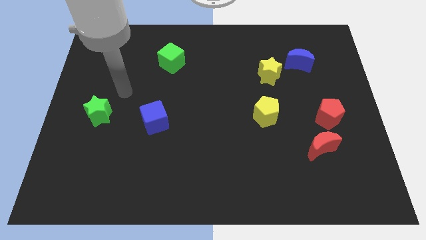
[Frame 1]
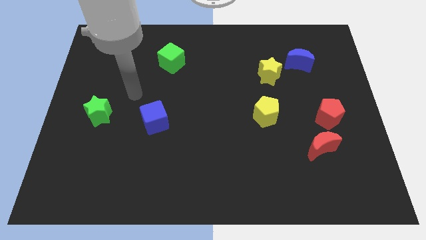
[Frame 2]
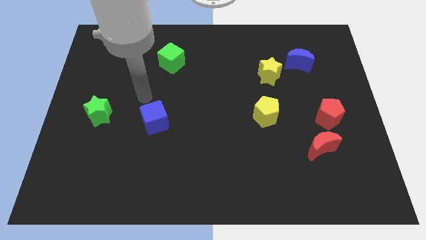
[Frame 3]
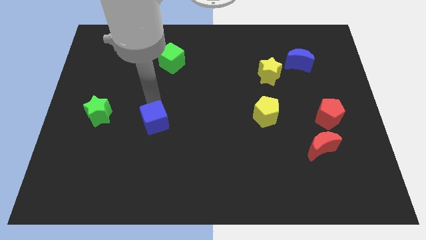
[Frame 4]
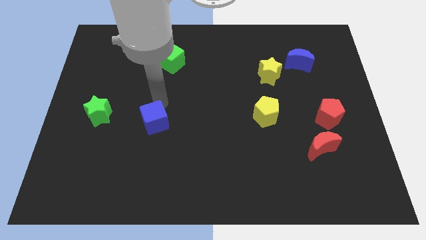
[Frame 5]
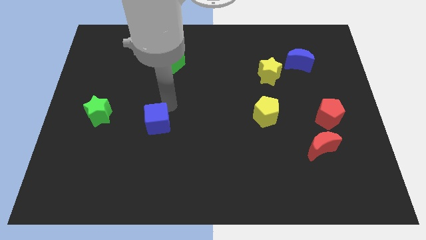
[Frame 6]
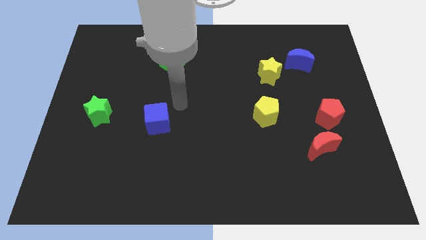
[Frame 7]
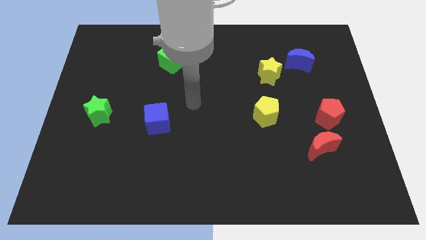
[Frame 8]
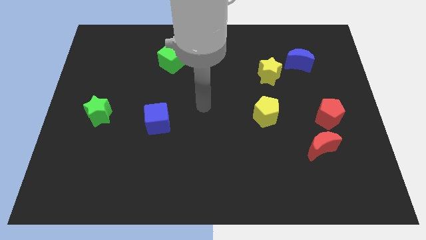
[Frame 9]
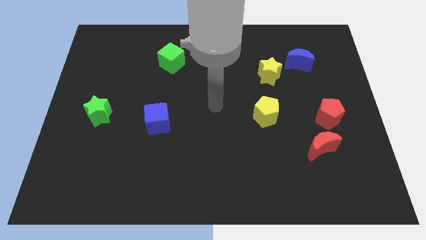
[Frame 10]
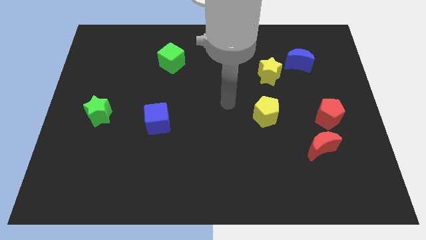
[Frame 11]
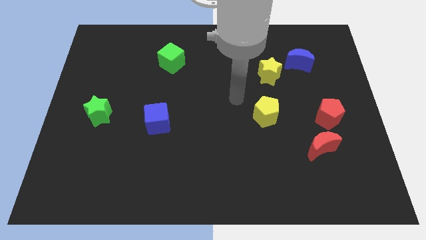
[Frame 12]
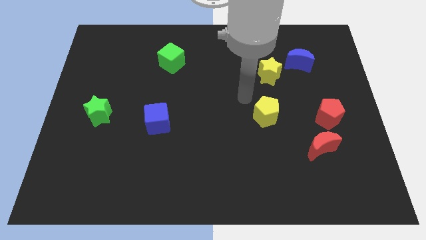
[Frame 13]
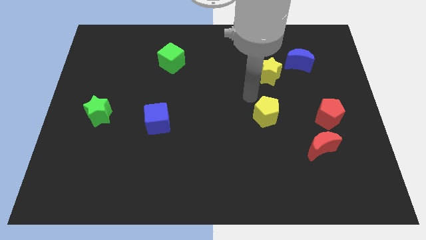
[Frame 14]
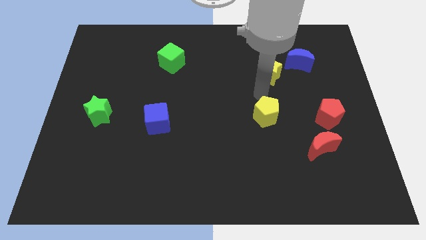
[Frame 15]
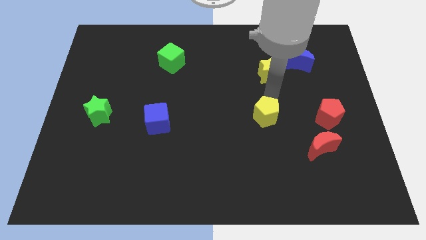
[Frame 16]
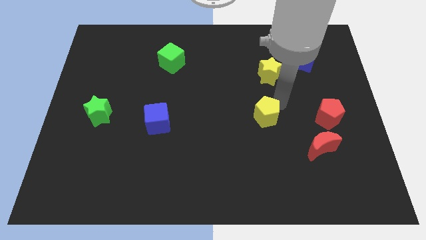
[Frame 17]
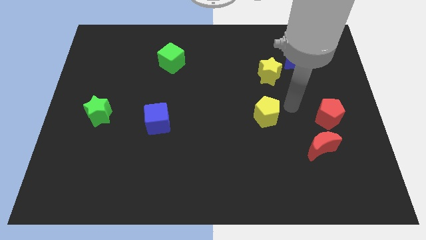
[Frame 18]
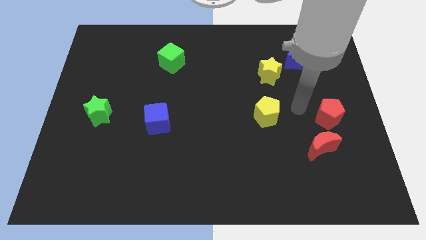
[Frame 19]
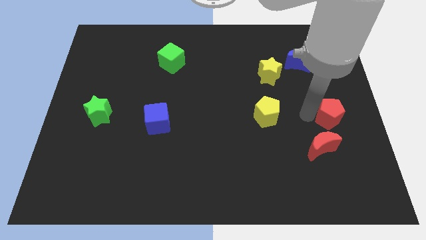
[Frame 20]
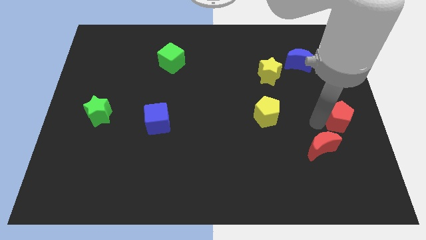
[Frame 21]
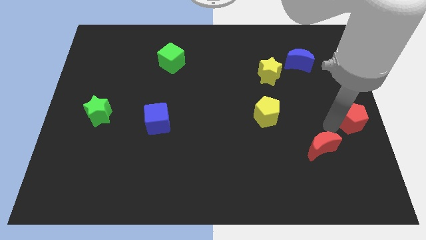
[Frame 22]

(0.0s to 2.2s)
pull the red moon apart from the red pentagon

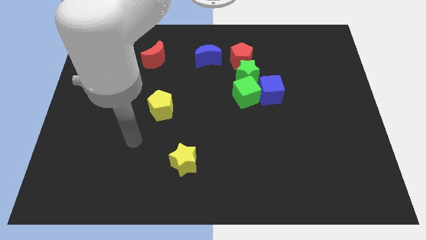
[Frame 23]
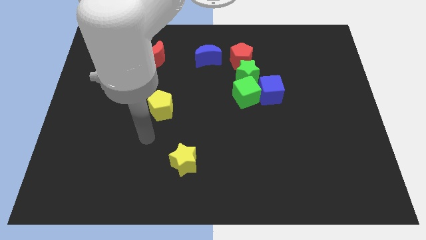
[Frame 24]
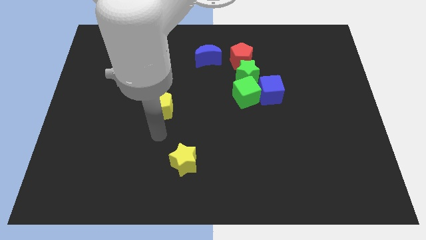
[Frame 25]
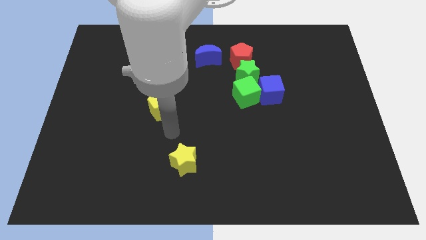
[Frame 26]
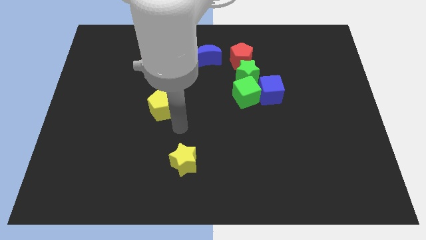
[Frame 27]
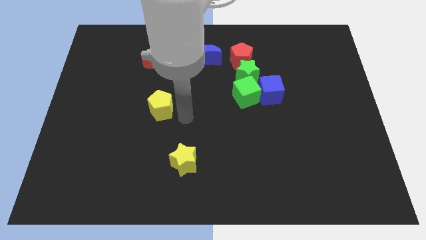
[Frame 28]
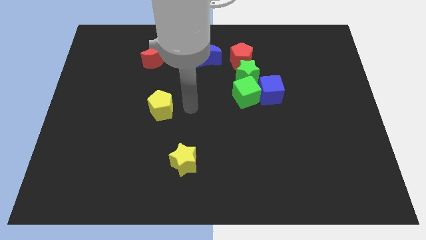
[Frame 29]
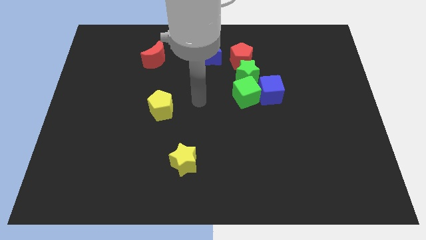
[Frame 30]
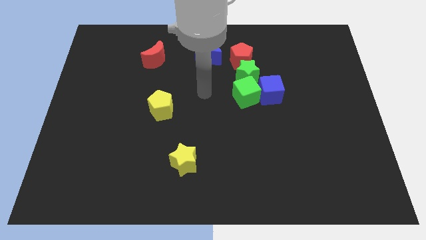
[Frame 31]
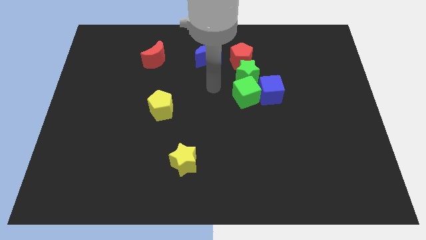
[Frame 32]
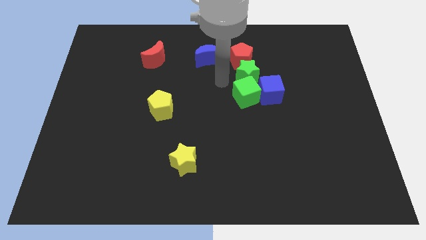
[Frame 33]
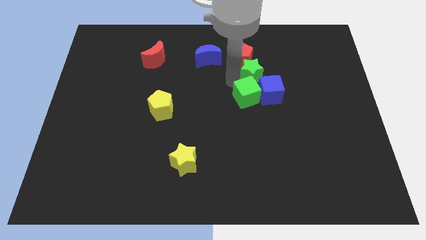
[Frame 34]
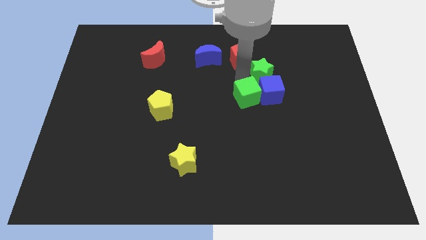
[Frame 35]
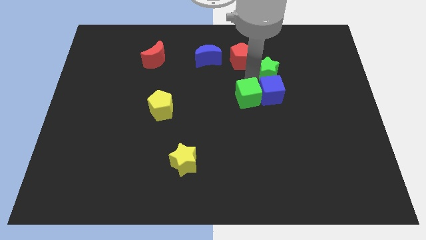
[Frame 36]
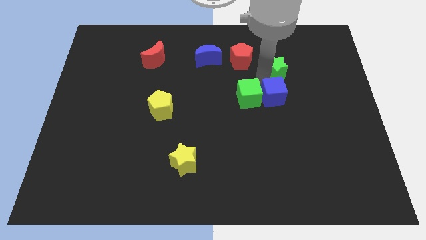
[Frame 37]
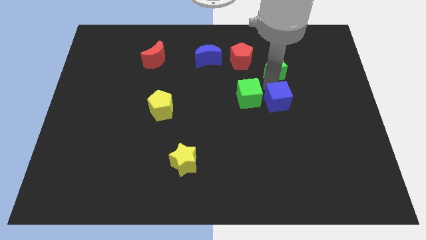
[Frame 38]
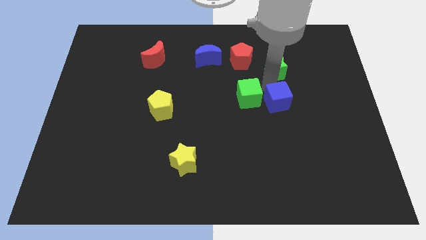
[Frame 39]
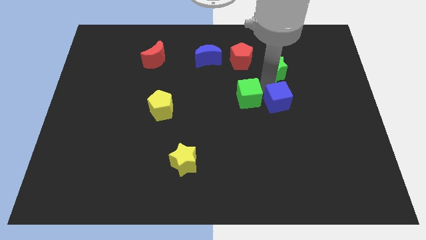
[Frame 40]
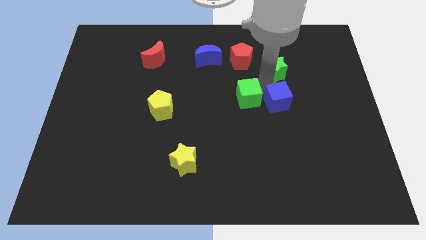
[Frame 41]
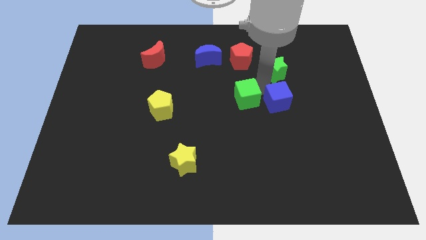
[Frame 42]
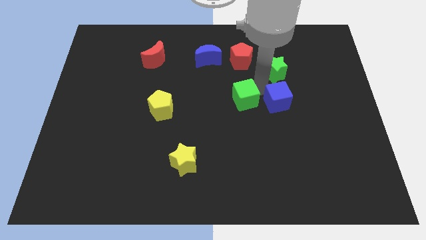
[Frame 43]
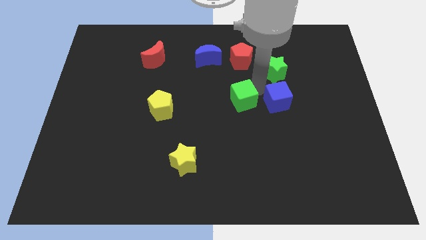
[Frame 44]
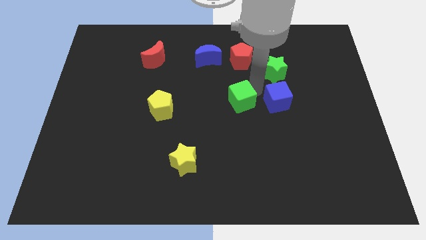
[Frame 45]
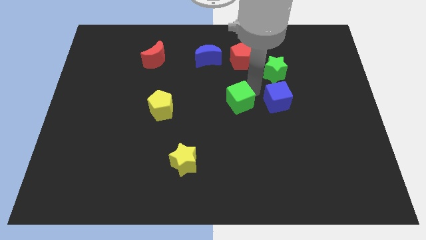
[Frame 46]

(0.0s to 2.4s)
separate the green cube from the blue cube and green star

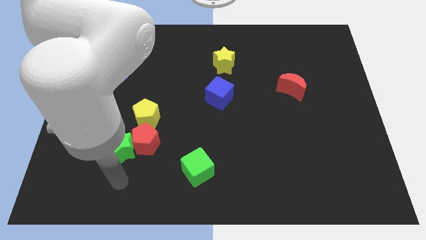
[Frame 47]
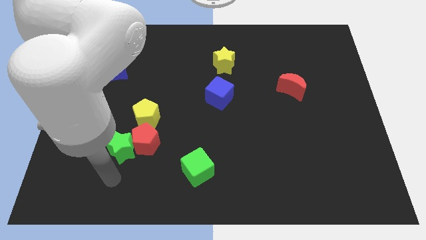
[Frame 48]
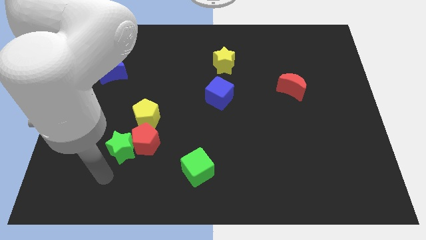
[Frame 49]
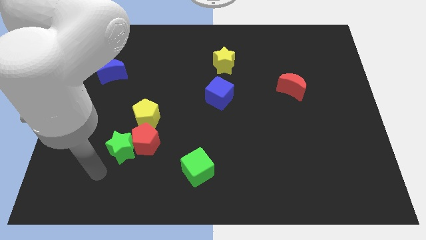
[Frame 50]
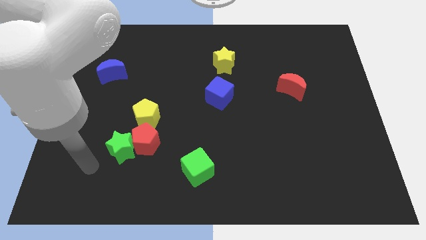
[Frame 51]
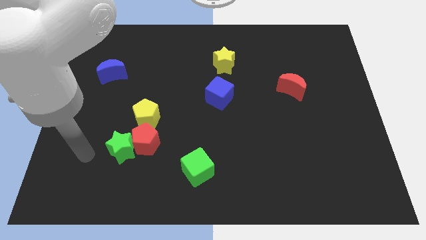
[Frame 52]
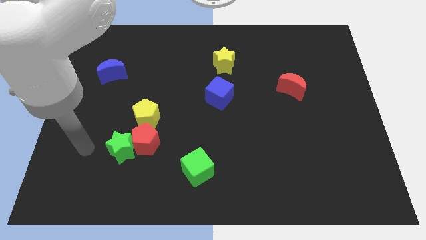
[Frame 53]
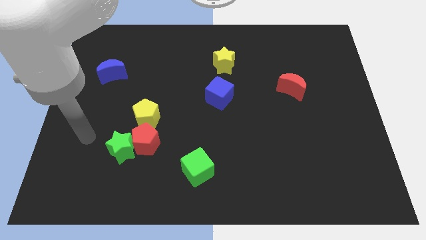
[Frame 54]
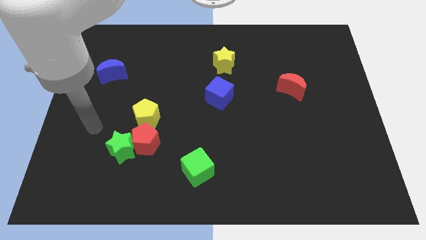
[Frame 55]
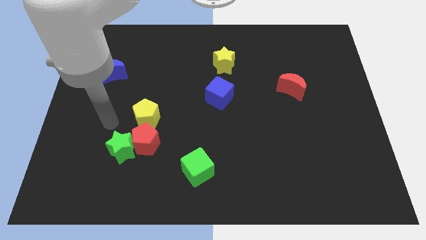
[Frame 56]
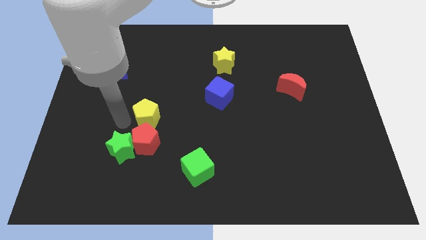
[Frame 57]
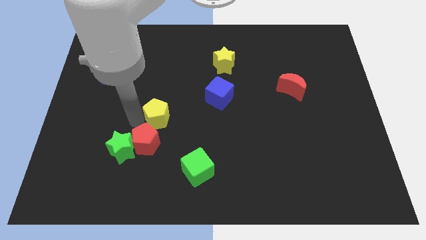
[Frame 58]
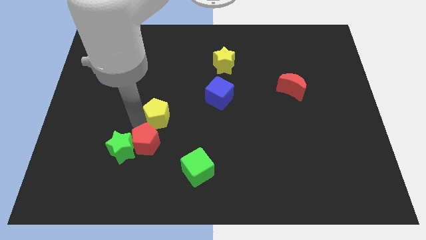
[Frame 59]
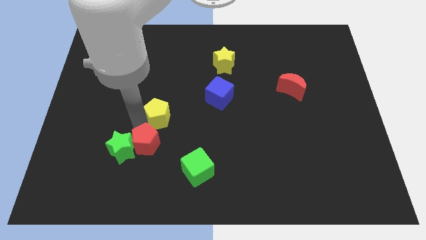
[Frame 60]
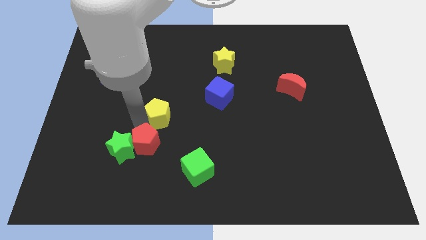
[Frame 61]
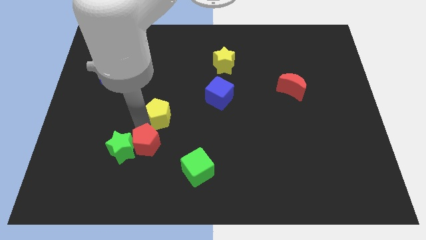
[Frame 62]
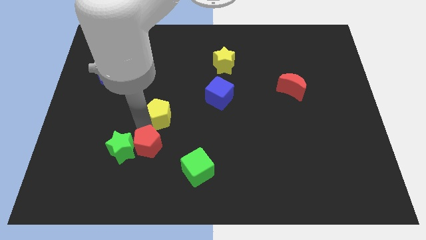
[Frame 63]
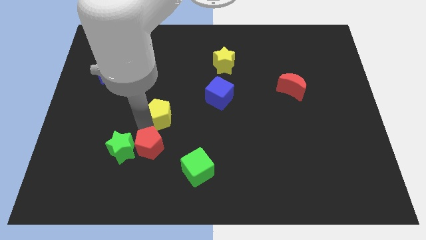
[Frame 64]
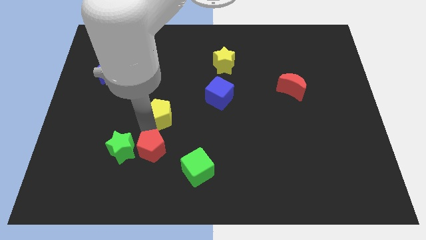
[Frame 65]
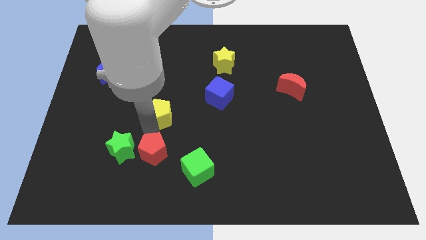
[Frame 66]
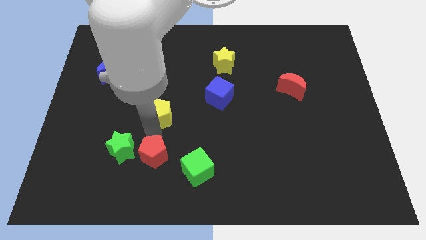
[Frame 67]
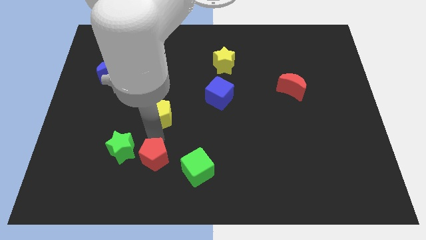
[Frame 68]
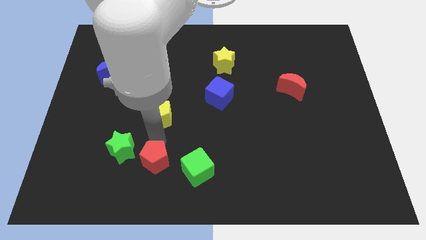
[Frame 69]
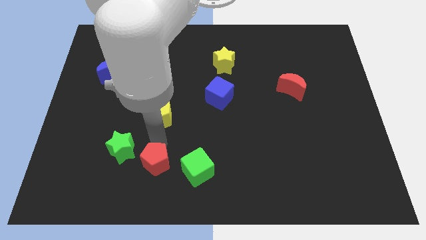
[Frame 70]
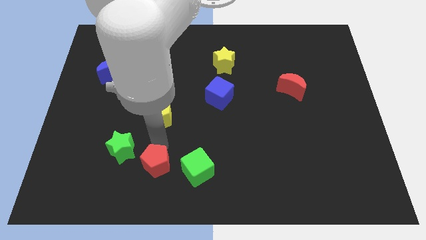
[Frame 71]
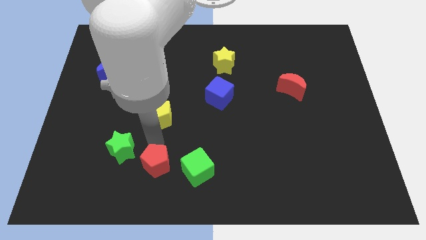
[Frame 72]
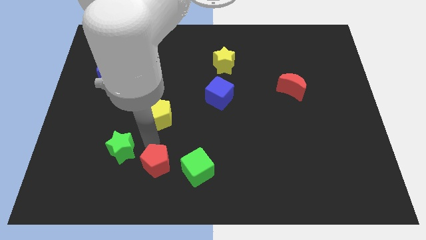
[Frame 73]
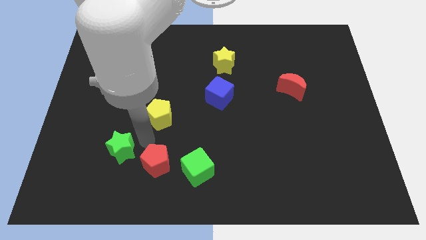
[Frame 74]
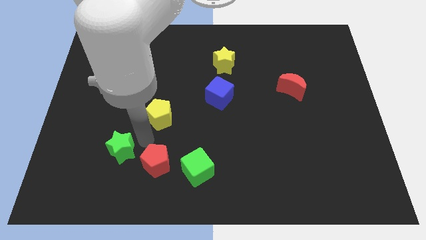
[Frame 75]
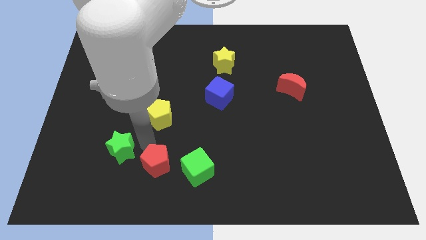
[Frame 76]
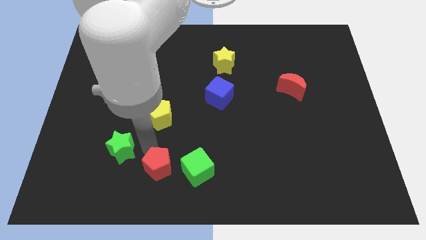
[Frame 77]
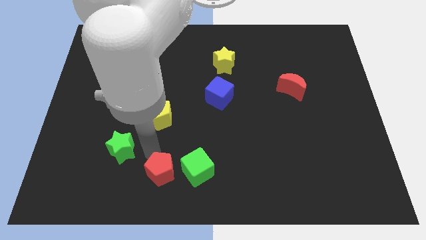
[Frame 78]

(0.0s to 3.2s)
move the red pentagon away from the green star and yellow pentagon

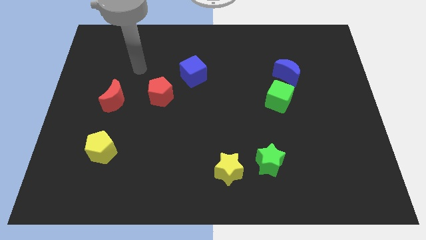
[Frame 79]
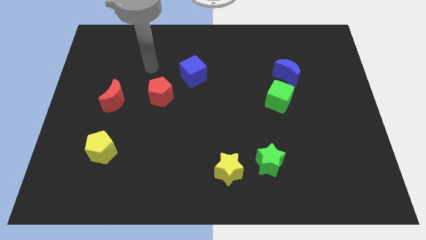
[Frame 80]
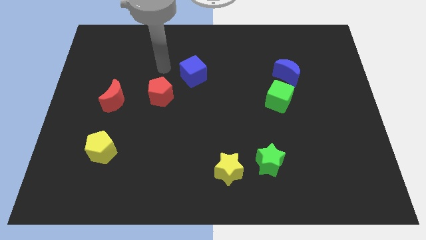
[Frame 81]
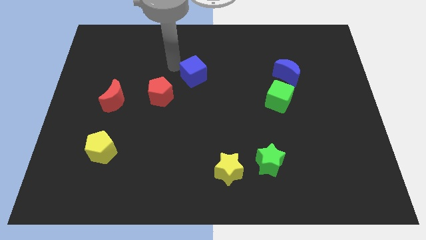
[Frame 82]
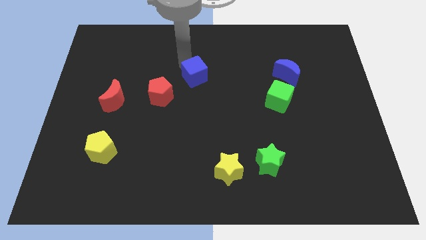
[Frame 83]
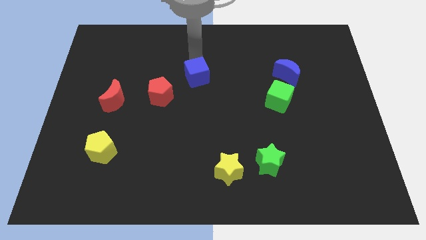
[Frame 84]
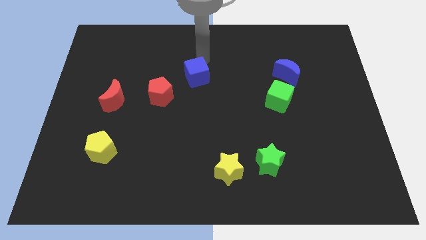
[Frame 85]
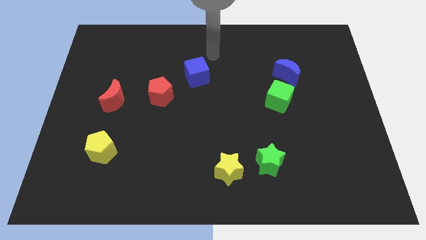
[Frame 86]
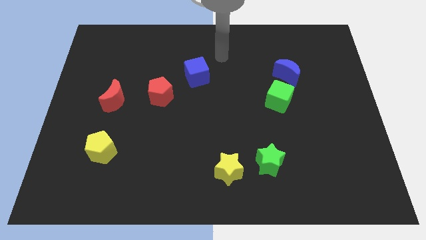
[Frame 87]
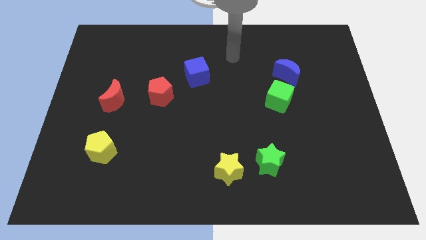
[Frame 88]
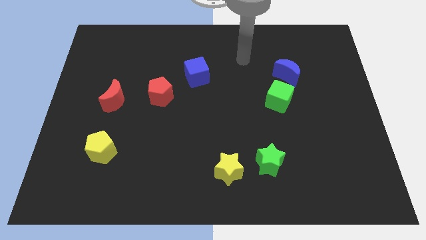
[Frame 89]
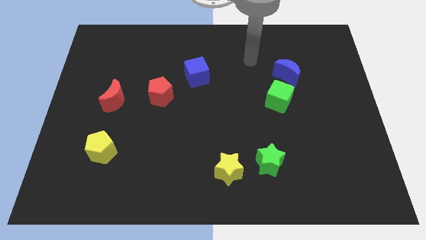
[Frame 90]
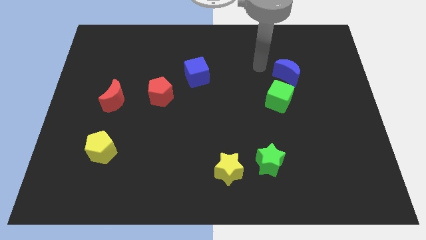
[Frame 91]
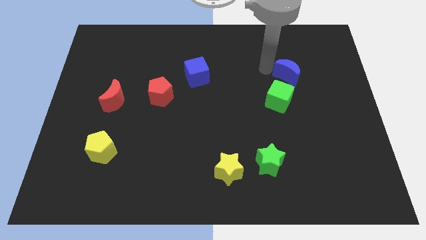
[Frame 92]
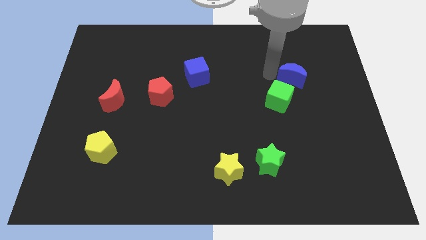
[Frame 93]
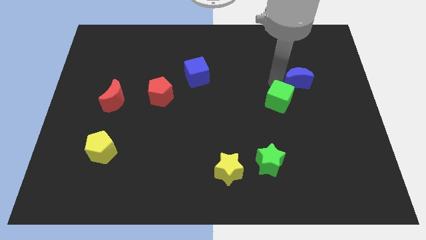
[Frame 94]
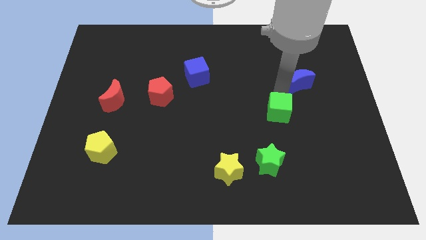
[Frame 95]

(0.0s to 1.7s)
separate the blue moon from the green cube
